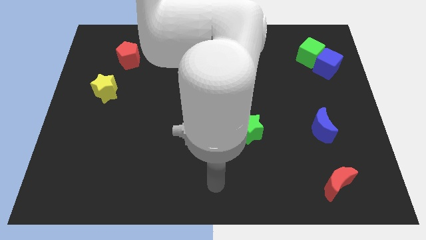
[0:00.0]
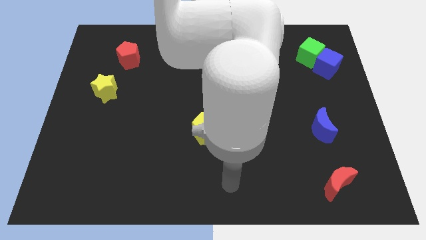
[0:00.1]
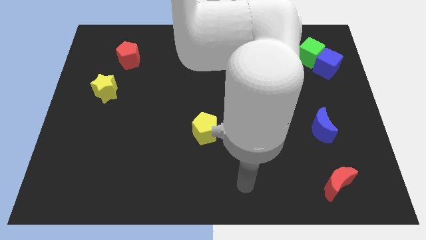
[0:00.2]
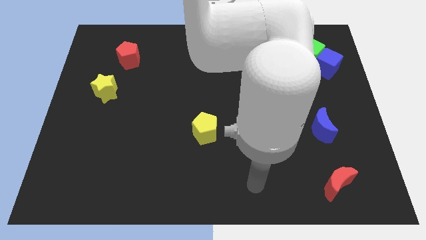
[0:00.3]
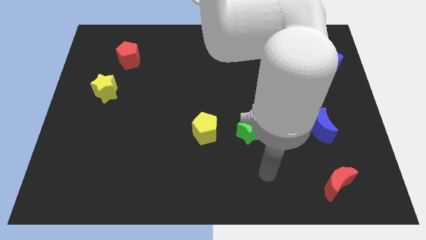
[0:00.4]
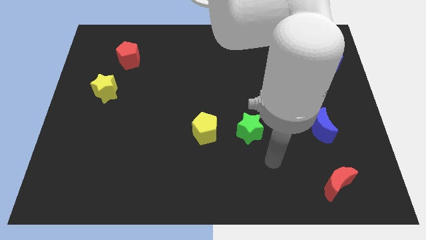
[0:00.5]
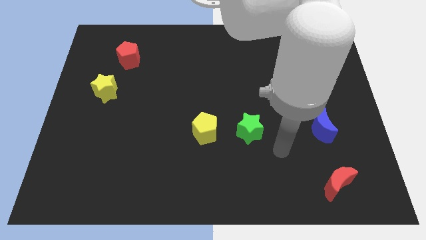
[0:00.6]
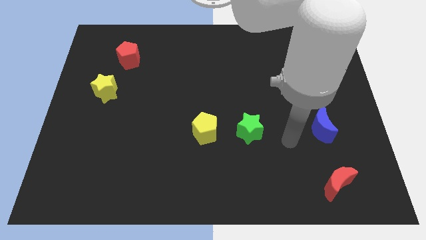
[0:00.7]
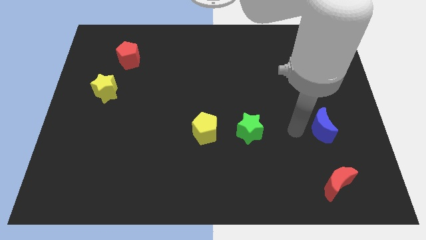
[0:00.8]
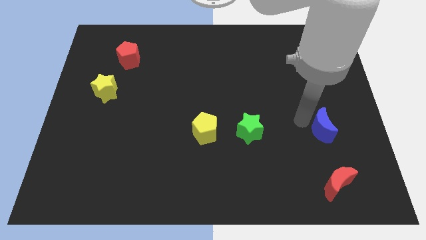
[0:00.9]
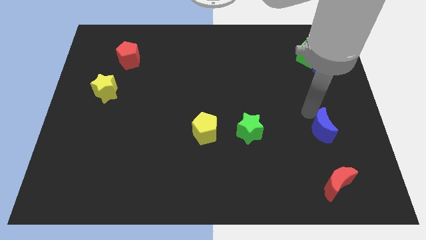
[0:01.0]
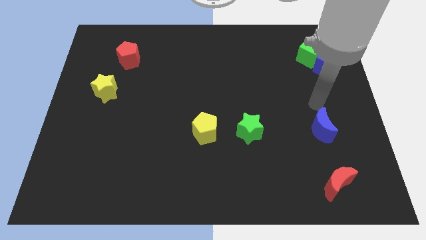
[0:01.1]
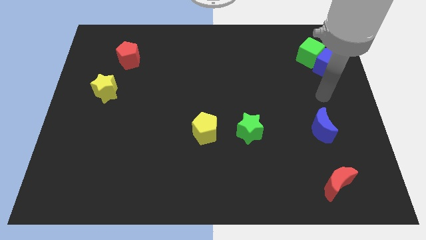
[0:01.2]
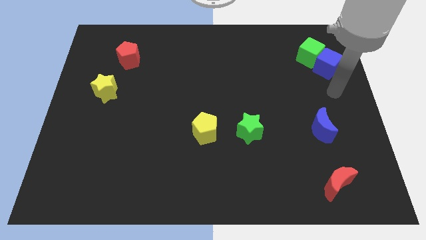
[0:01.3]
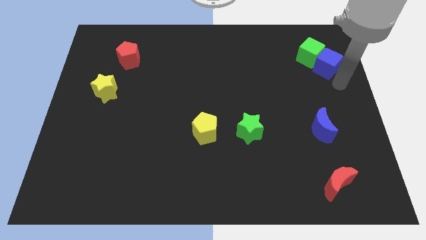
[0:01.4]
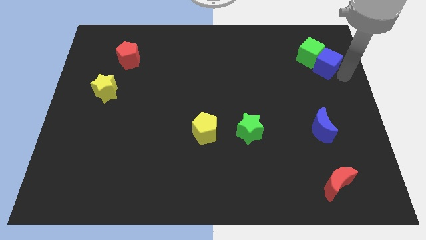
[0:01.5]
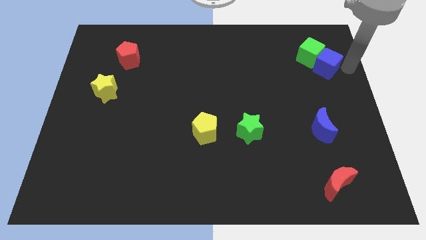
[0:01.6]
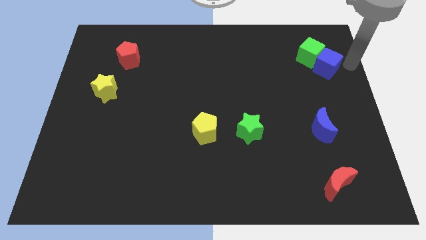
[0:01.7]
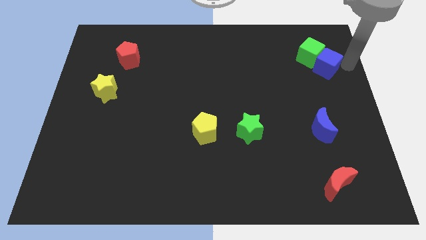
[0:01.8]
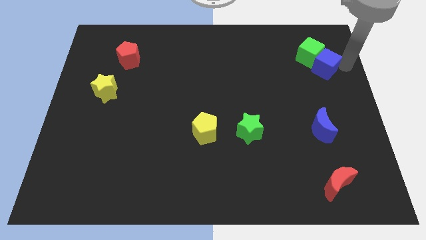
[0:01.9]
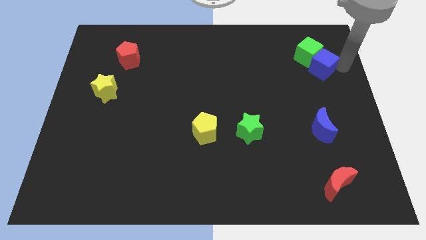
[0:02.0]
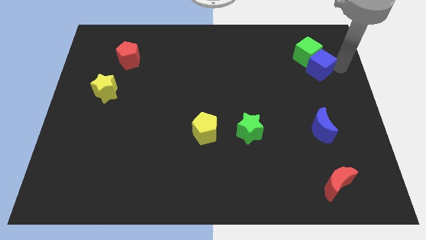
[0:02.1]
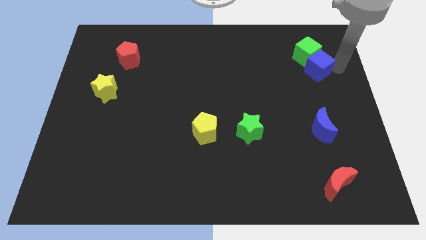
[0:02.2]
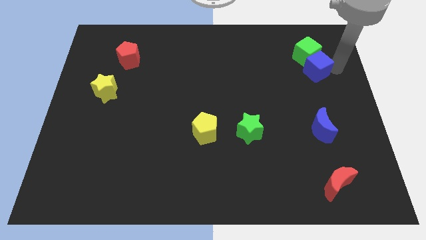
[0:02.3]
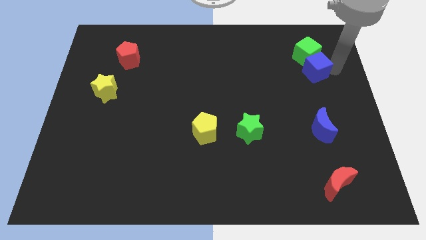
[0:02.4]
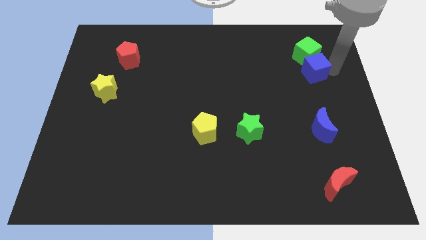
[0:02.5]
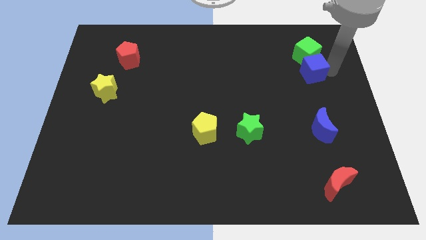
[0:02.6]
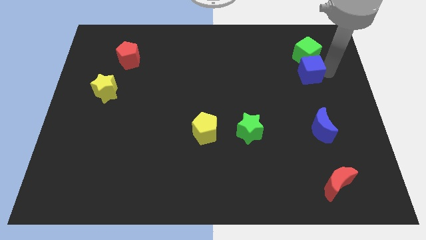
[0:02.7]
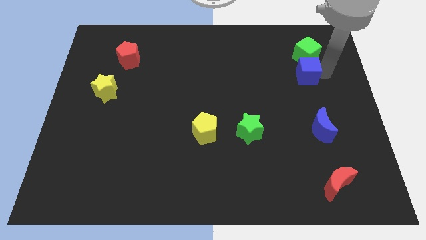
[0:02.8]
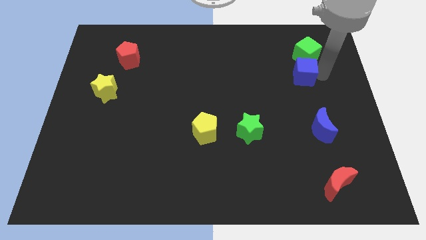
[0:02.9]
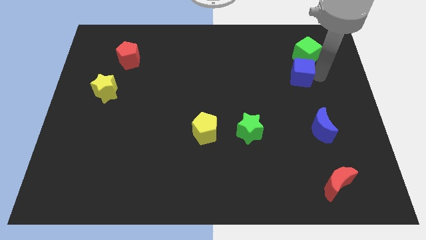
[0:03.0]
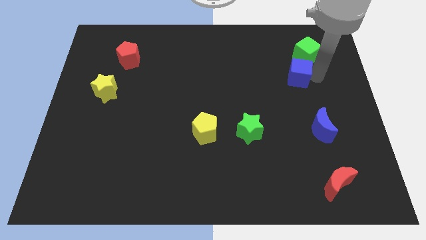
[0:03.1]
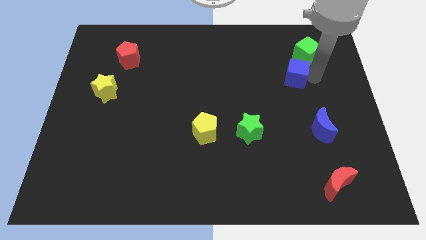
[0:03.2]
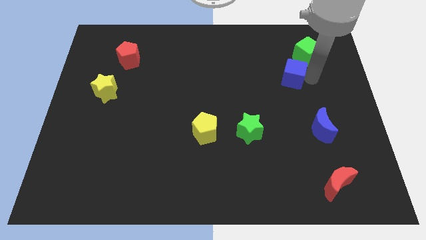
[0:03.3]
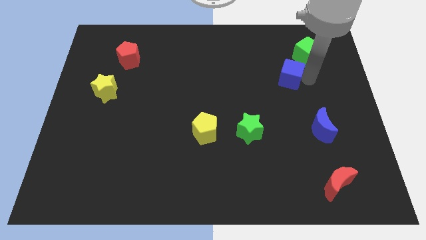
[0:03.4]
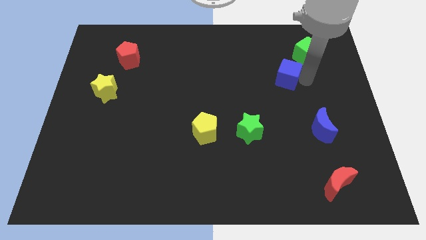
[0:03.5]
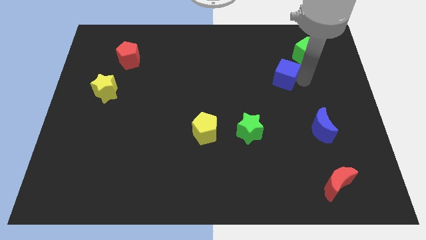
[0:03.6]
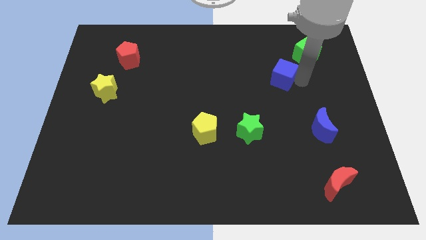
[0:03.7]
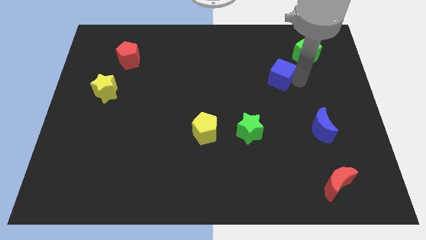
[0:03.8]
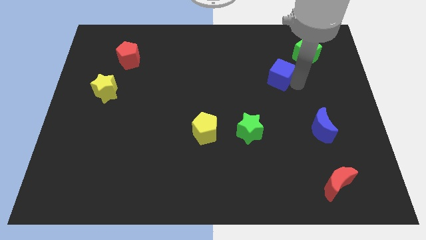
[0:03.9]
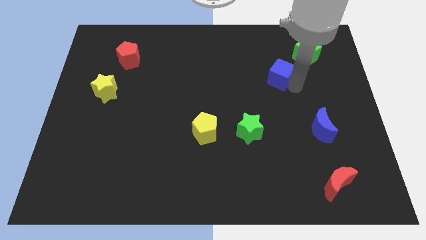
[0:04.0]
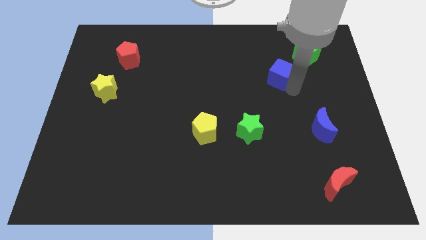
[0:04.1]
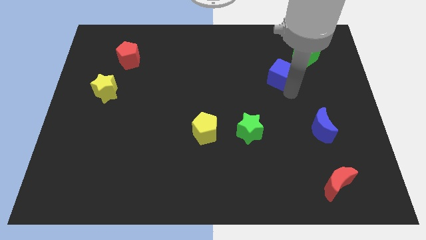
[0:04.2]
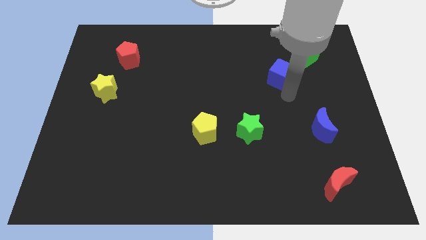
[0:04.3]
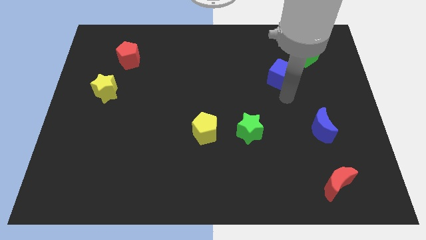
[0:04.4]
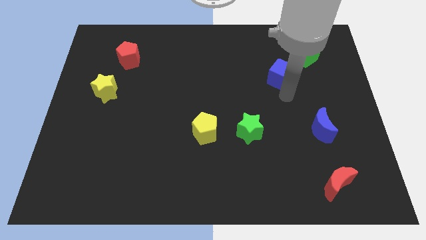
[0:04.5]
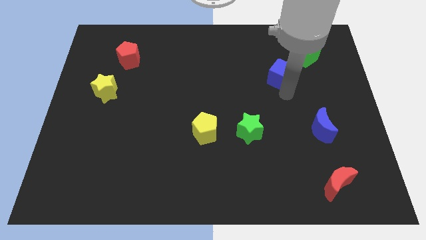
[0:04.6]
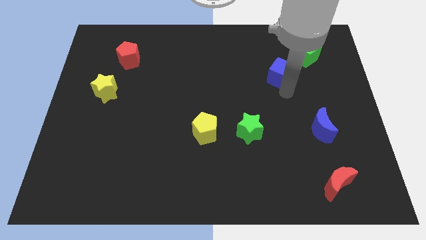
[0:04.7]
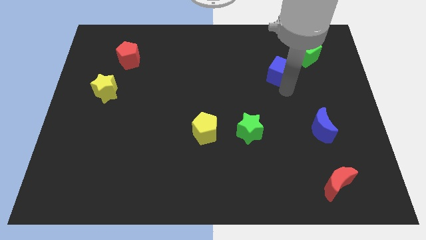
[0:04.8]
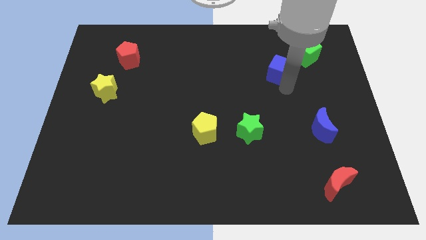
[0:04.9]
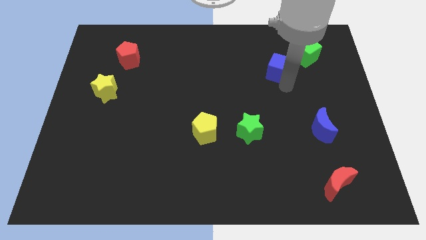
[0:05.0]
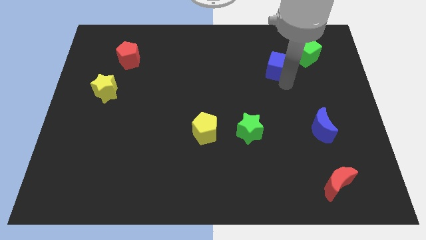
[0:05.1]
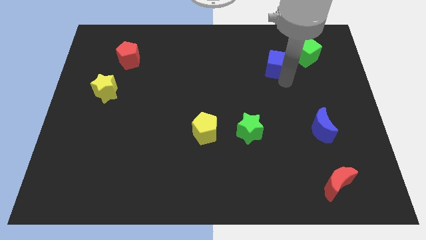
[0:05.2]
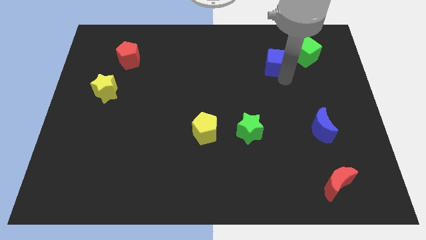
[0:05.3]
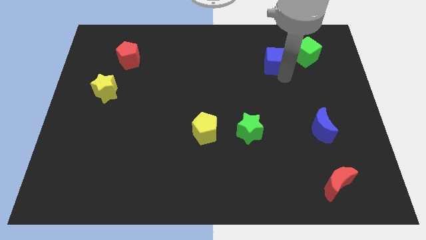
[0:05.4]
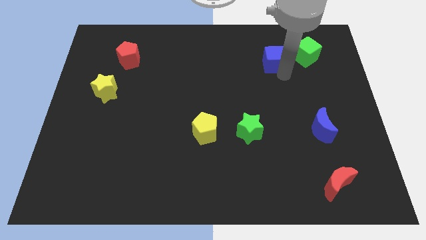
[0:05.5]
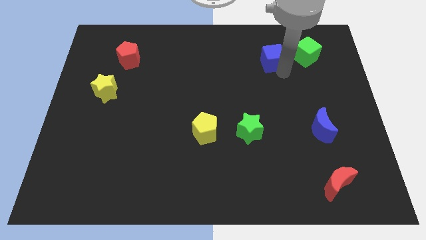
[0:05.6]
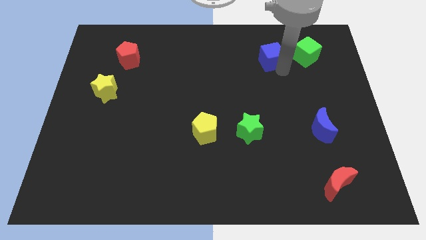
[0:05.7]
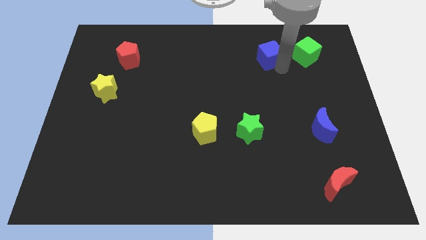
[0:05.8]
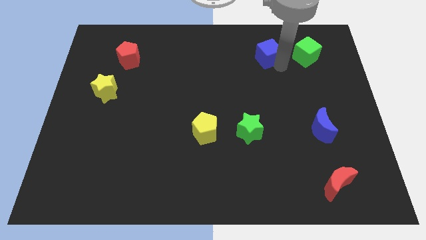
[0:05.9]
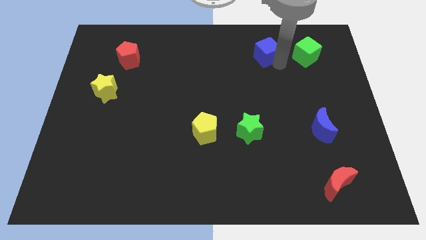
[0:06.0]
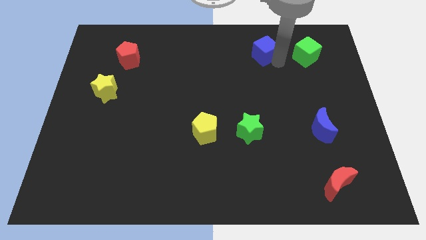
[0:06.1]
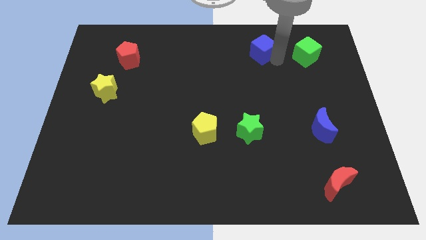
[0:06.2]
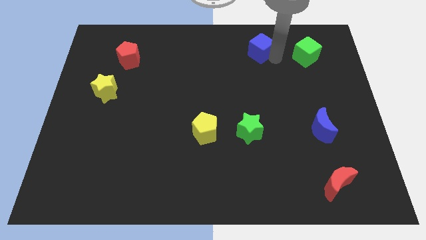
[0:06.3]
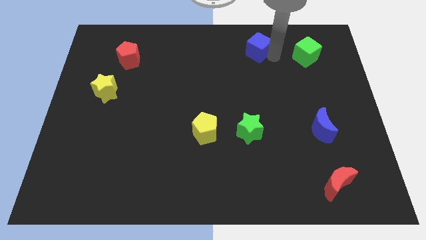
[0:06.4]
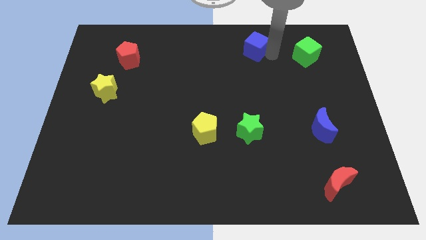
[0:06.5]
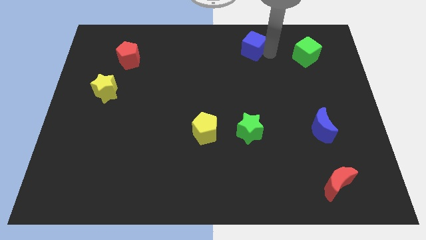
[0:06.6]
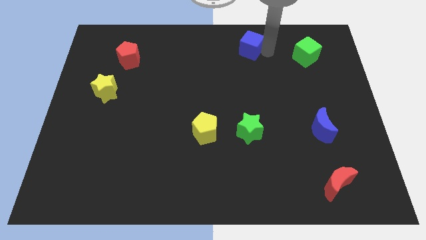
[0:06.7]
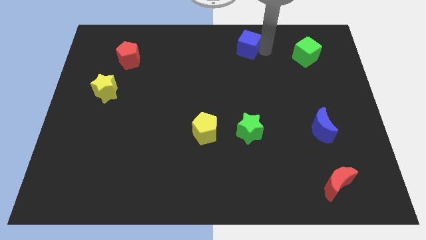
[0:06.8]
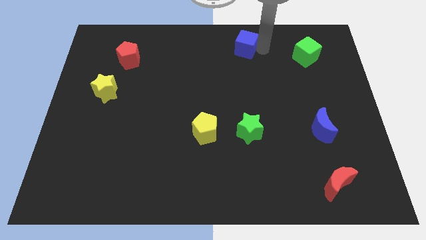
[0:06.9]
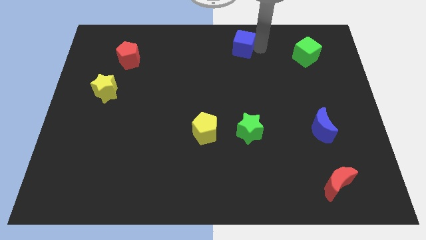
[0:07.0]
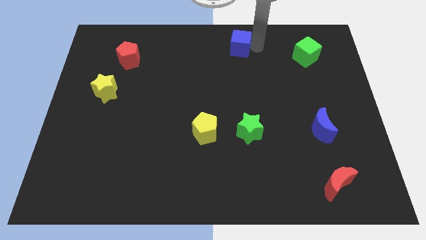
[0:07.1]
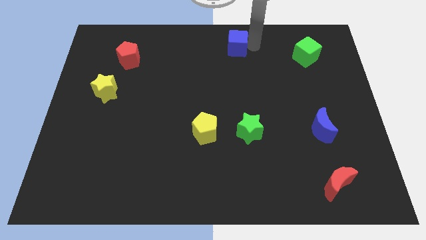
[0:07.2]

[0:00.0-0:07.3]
push the blue cube left

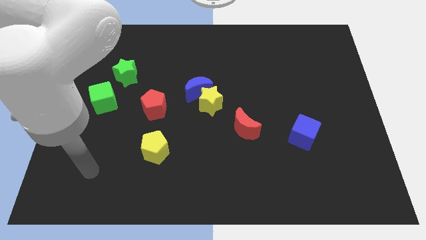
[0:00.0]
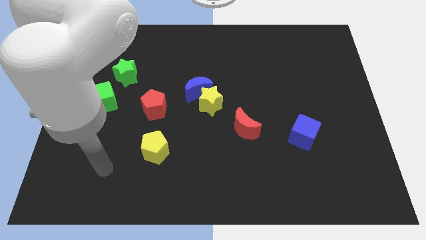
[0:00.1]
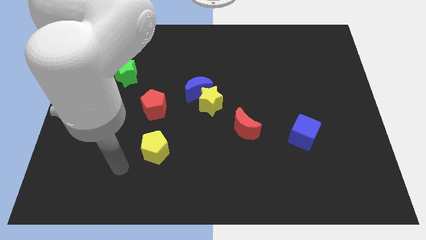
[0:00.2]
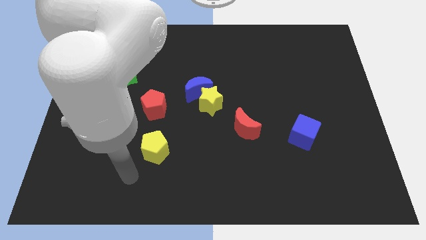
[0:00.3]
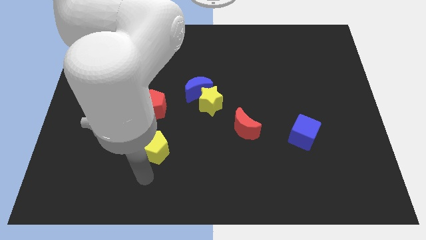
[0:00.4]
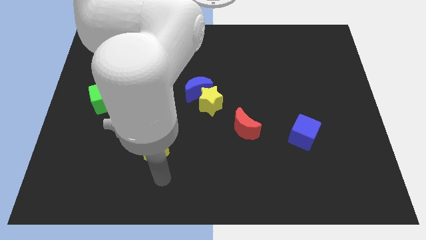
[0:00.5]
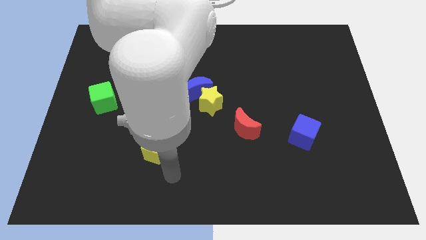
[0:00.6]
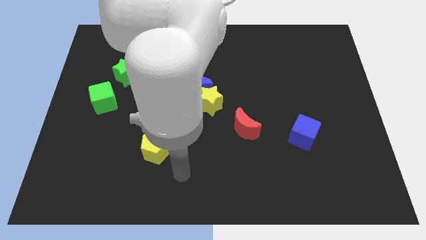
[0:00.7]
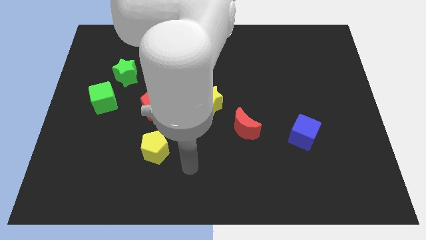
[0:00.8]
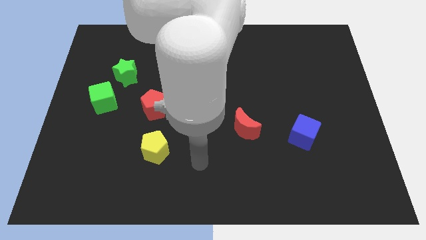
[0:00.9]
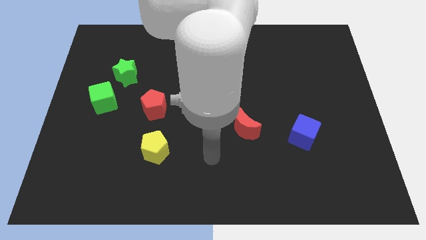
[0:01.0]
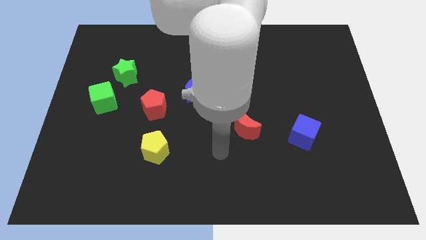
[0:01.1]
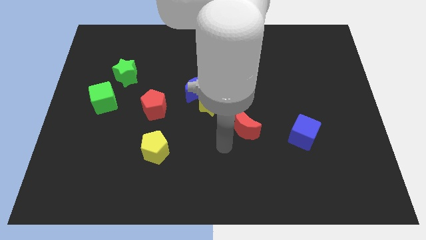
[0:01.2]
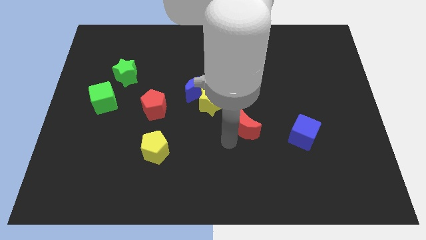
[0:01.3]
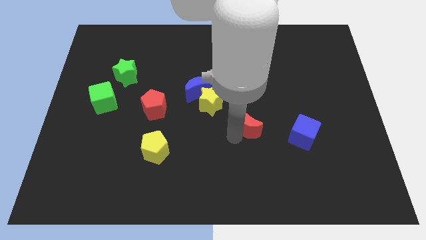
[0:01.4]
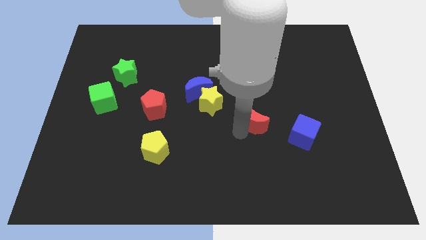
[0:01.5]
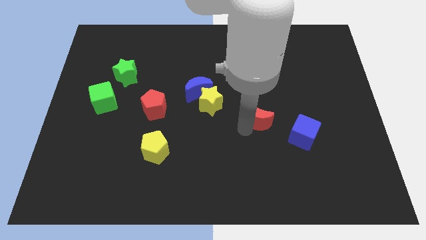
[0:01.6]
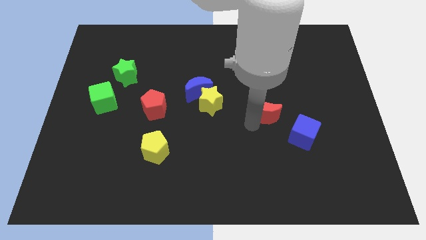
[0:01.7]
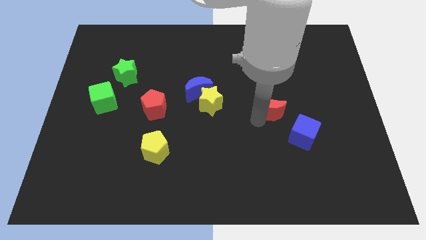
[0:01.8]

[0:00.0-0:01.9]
slide the red moon diagonally upwards and right somewhat
